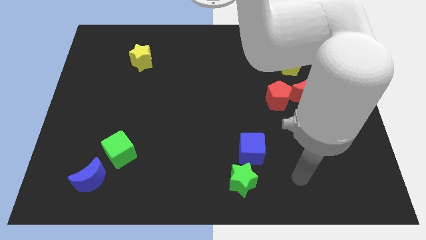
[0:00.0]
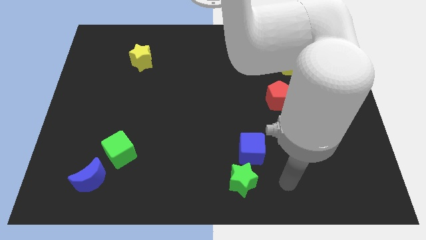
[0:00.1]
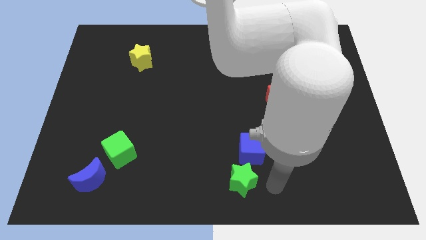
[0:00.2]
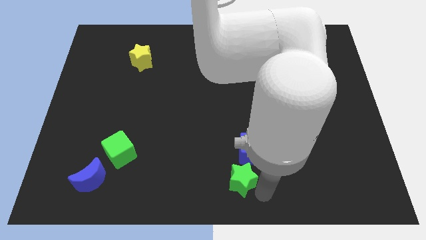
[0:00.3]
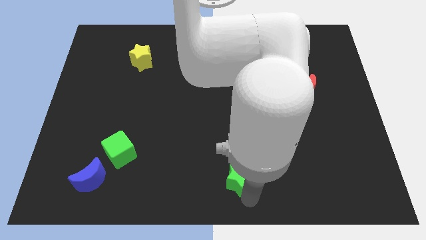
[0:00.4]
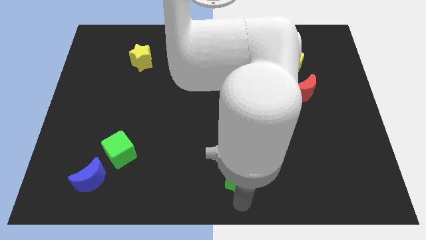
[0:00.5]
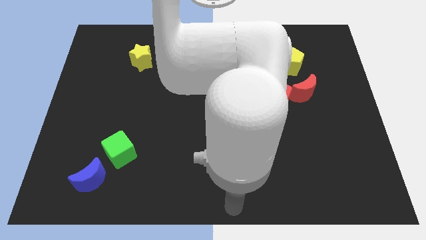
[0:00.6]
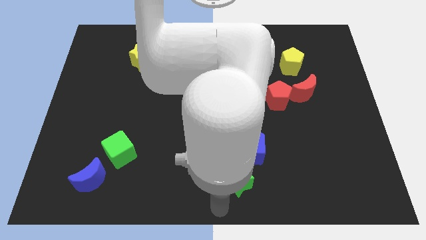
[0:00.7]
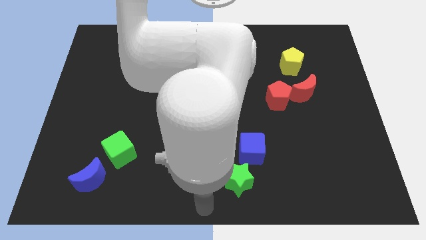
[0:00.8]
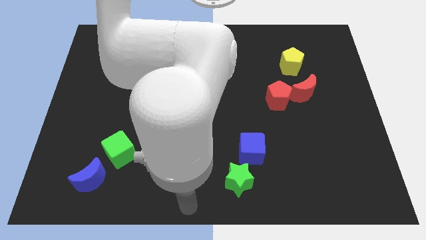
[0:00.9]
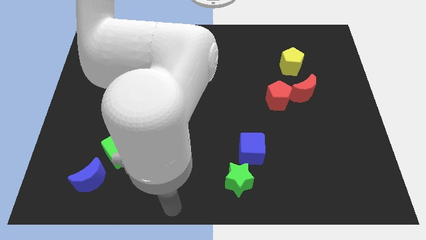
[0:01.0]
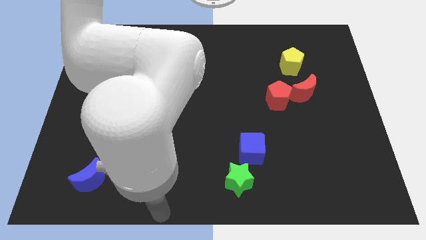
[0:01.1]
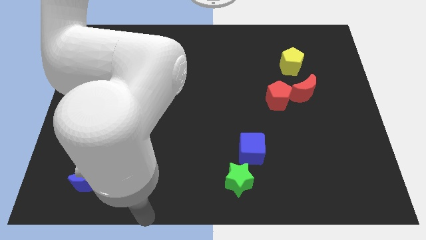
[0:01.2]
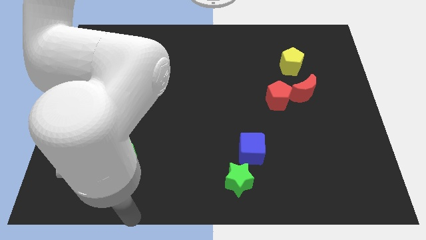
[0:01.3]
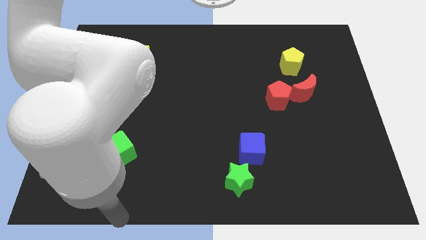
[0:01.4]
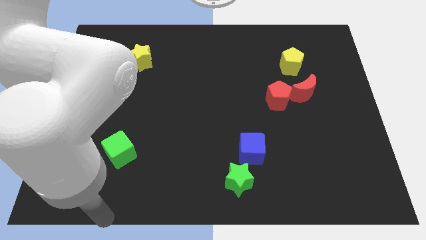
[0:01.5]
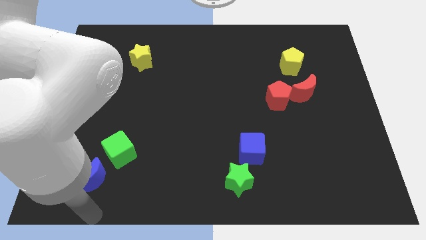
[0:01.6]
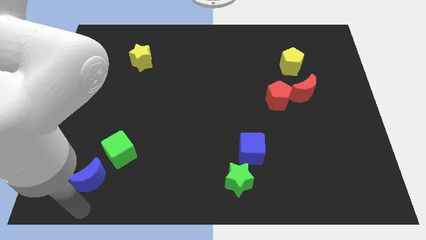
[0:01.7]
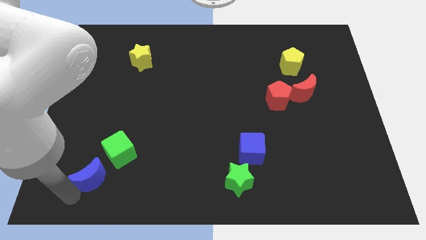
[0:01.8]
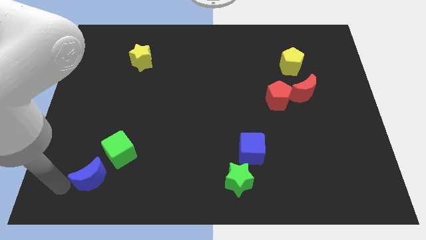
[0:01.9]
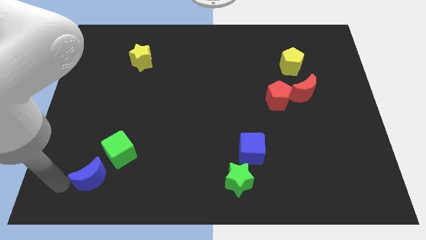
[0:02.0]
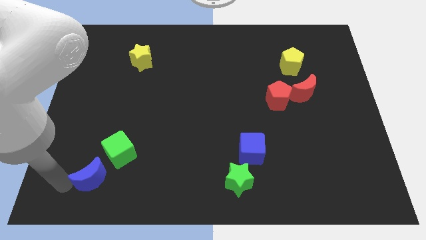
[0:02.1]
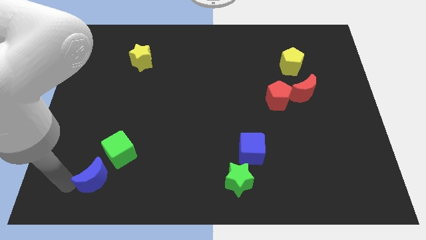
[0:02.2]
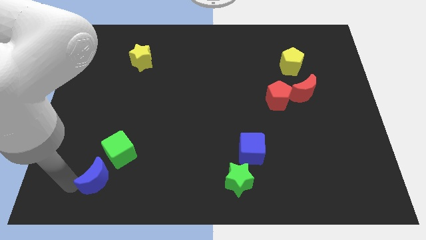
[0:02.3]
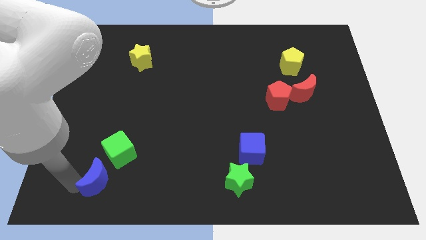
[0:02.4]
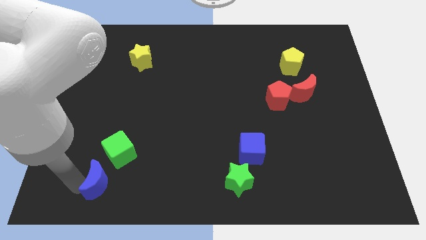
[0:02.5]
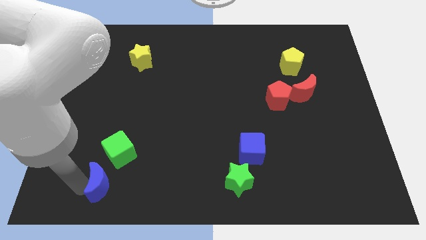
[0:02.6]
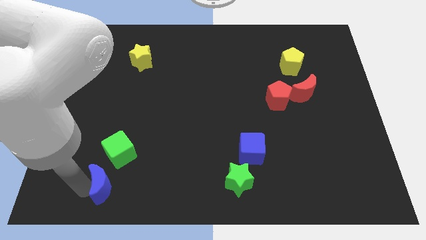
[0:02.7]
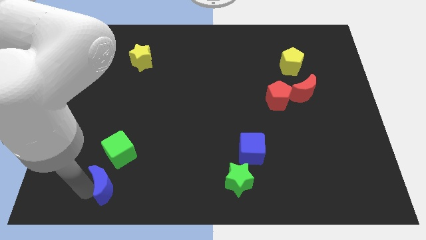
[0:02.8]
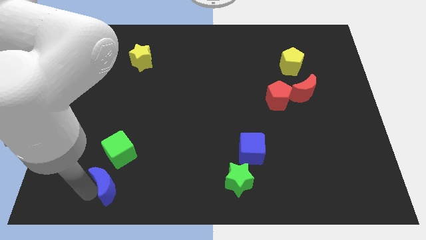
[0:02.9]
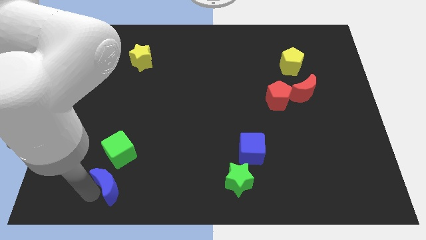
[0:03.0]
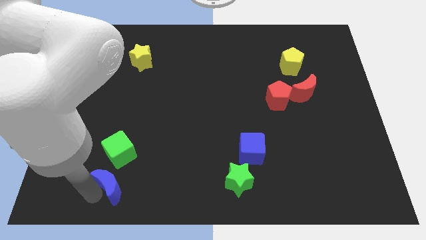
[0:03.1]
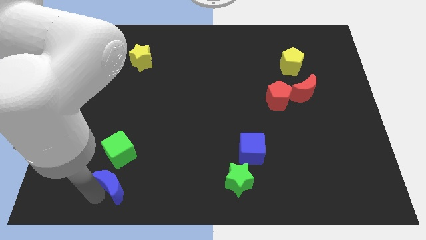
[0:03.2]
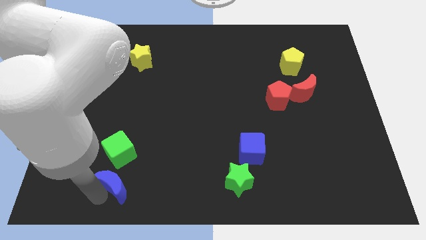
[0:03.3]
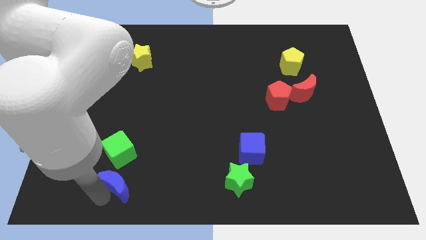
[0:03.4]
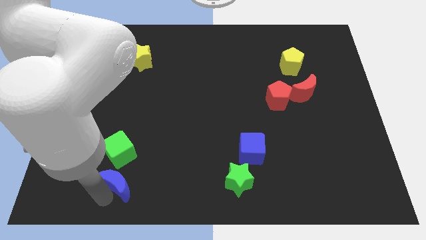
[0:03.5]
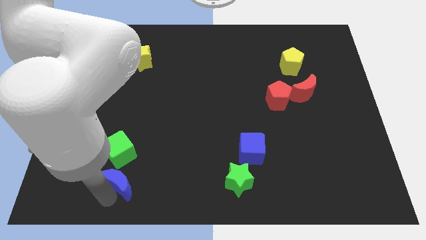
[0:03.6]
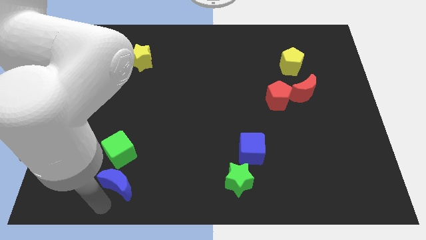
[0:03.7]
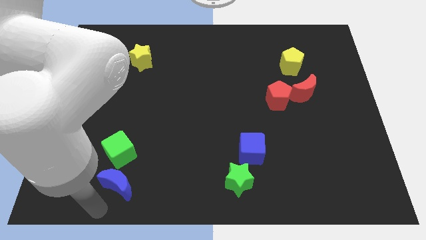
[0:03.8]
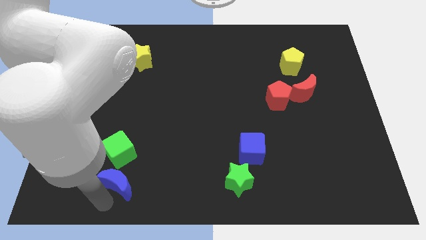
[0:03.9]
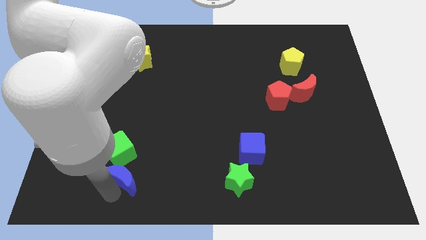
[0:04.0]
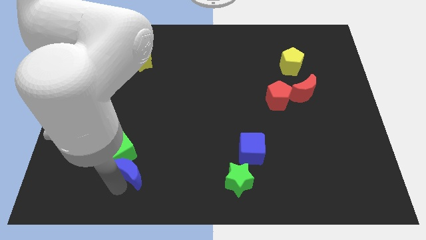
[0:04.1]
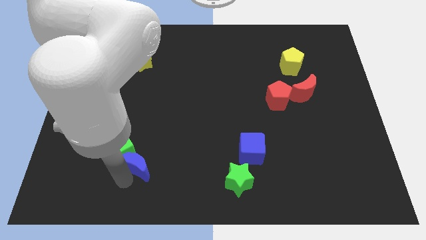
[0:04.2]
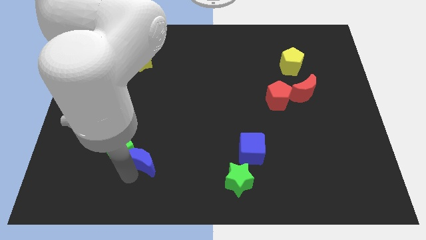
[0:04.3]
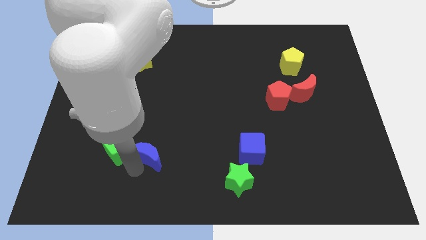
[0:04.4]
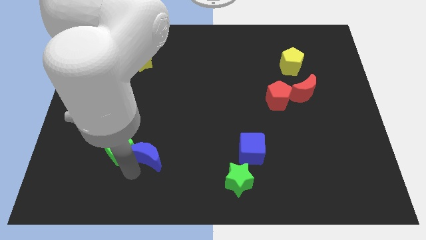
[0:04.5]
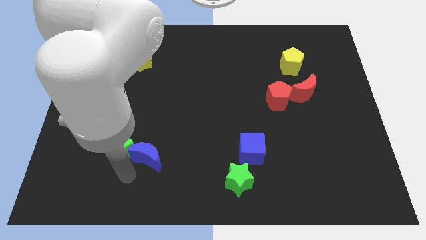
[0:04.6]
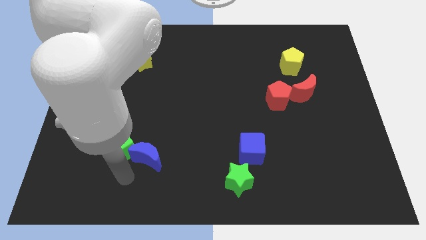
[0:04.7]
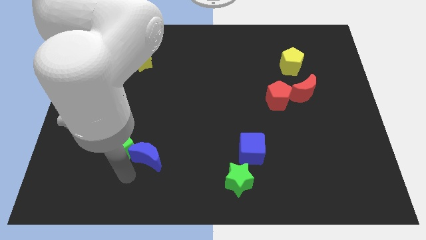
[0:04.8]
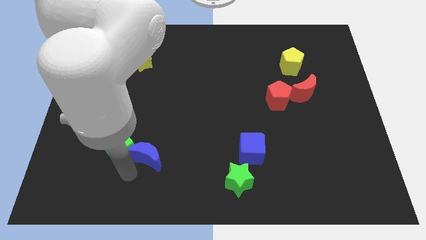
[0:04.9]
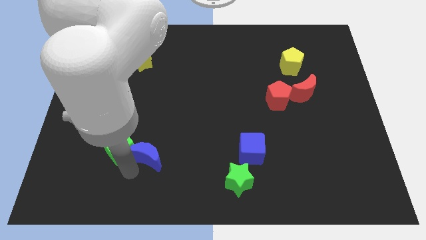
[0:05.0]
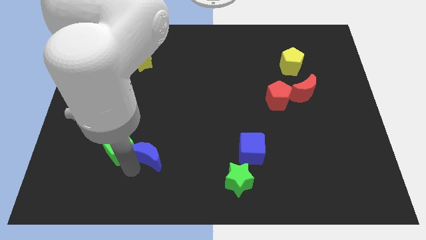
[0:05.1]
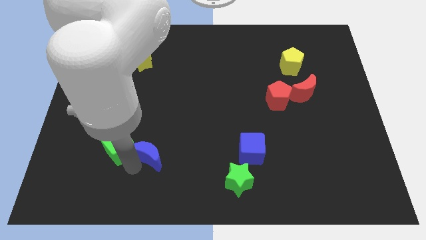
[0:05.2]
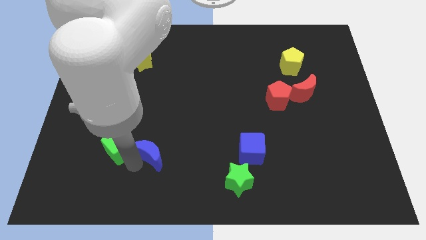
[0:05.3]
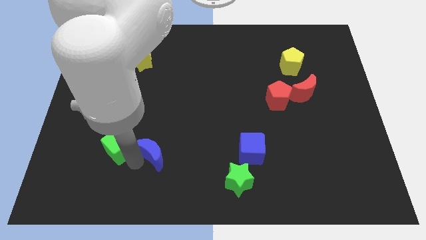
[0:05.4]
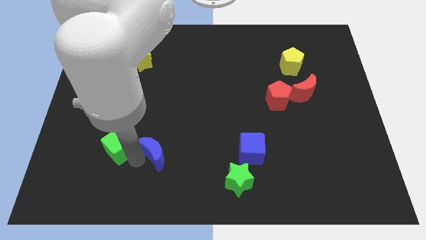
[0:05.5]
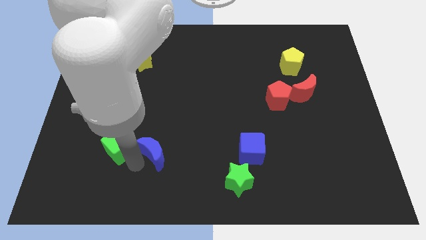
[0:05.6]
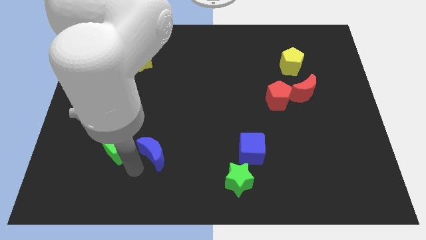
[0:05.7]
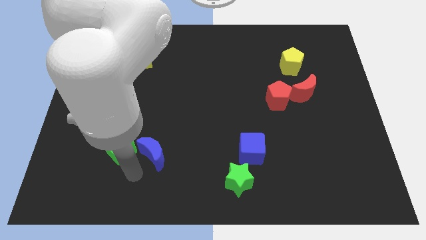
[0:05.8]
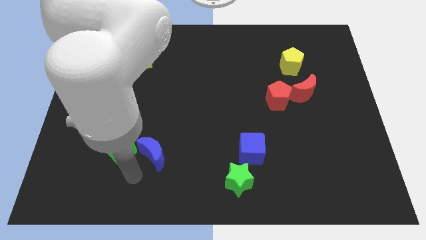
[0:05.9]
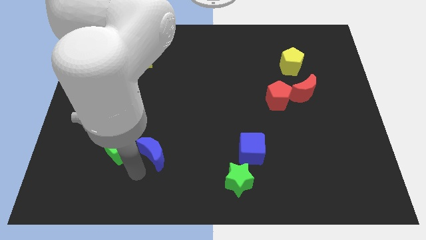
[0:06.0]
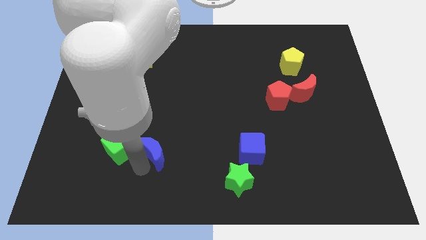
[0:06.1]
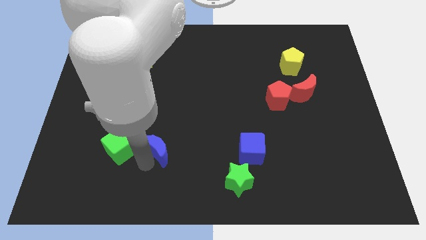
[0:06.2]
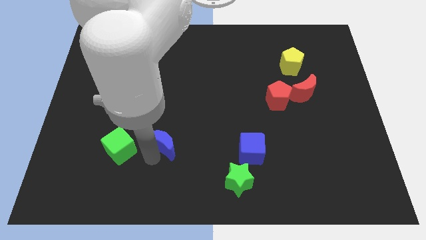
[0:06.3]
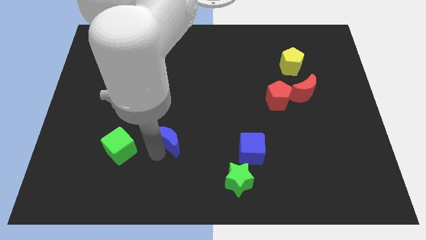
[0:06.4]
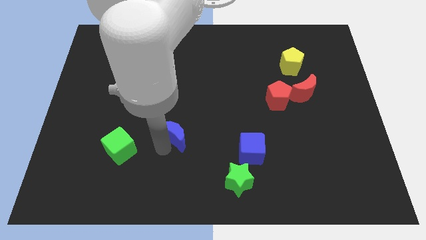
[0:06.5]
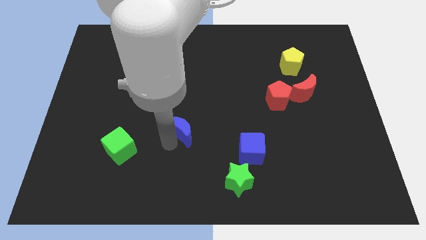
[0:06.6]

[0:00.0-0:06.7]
move the blue moon to the middle of the board
